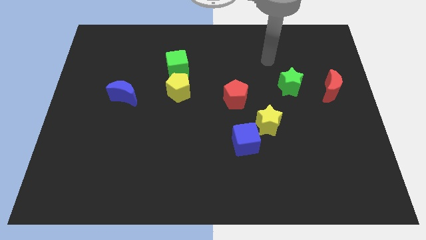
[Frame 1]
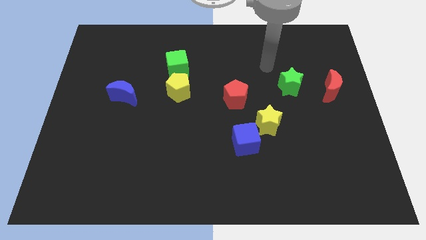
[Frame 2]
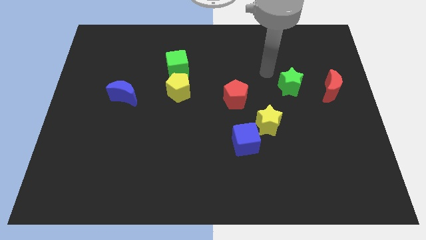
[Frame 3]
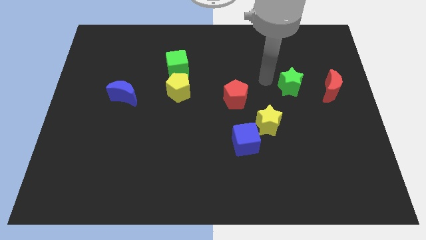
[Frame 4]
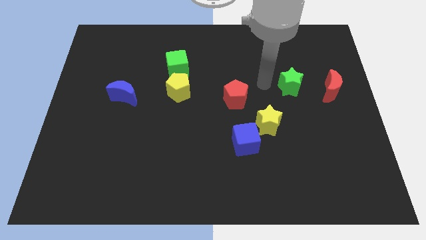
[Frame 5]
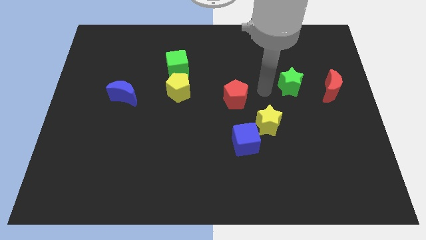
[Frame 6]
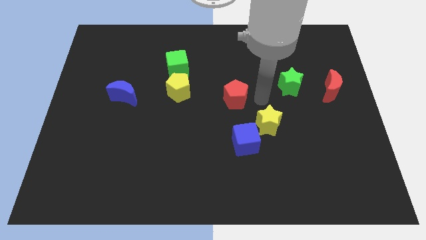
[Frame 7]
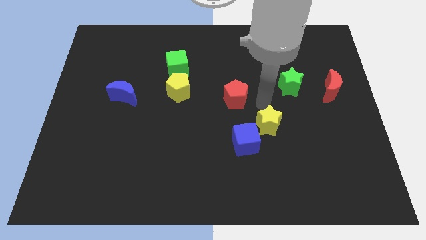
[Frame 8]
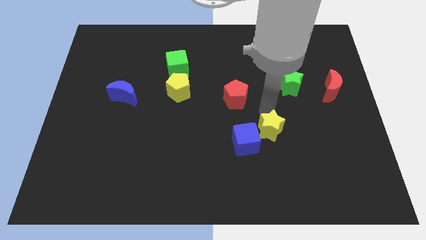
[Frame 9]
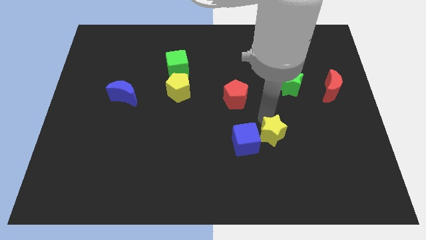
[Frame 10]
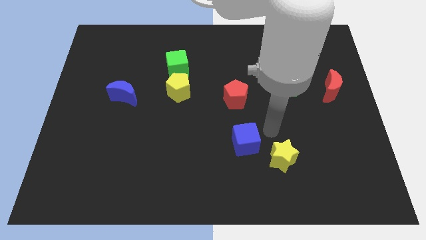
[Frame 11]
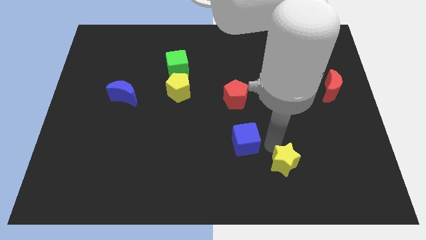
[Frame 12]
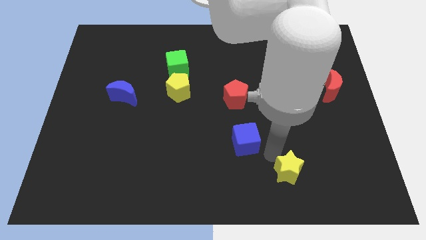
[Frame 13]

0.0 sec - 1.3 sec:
move the blue cube away from the yellow star

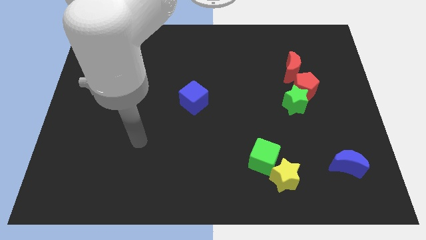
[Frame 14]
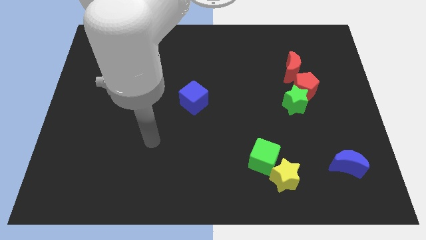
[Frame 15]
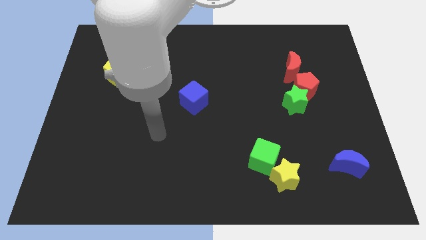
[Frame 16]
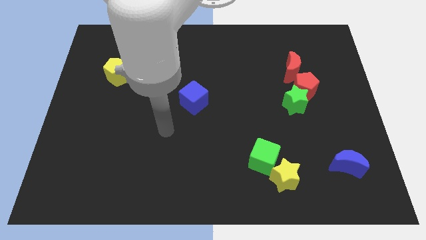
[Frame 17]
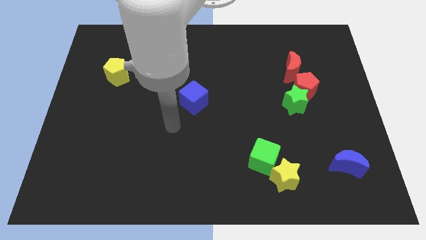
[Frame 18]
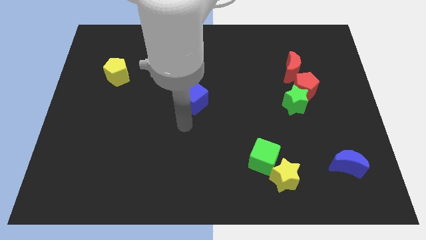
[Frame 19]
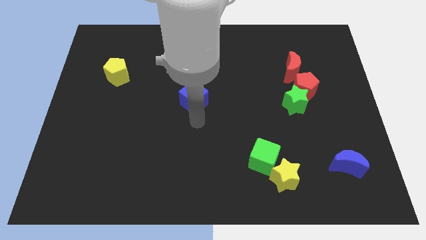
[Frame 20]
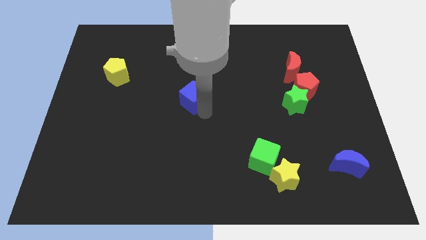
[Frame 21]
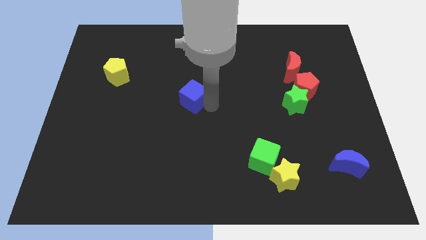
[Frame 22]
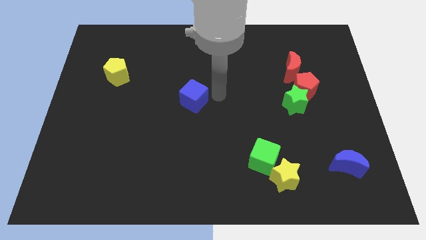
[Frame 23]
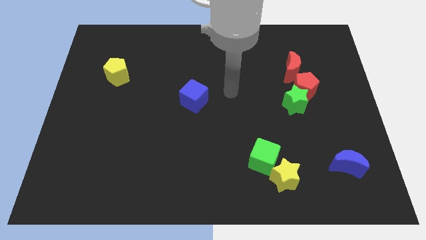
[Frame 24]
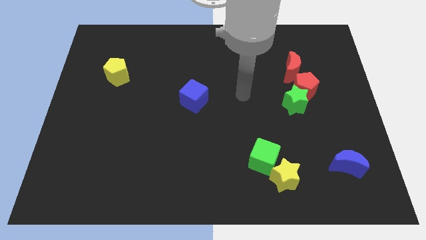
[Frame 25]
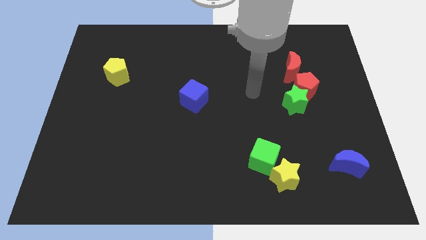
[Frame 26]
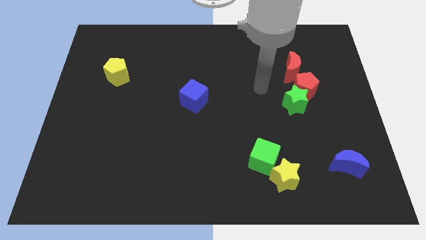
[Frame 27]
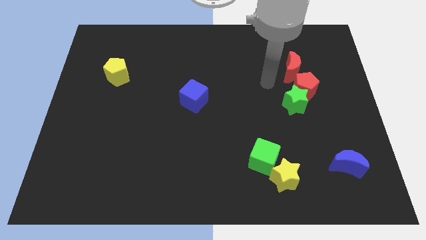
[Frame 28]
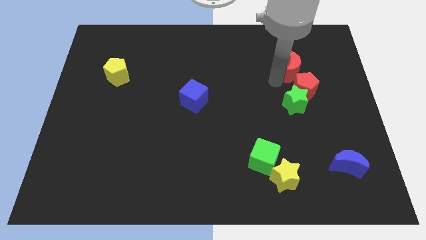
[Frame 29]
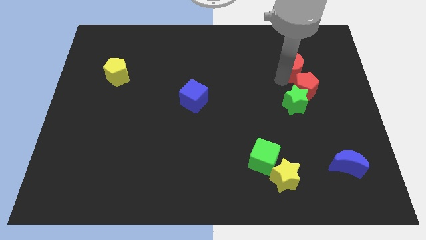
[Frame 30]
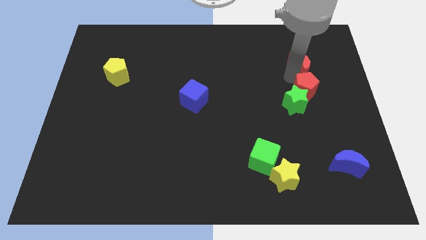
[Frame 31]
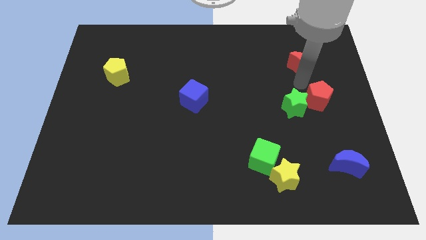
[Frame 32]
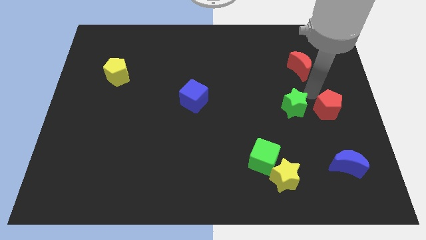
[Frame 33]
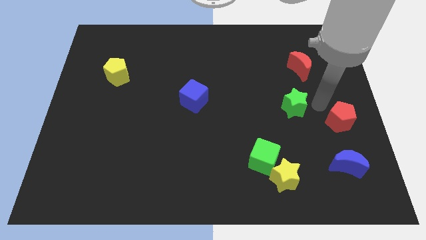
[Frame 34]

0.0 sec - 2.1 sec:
separate the green star from the red pentagon

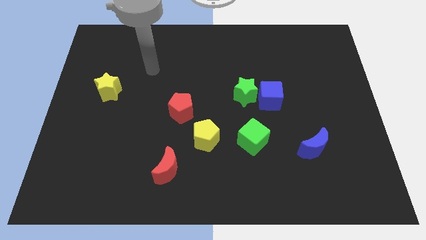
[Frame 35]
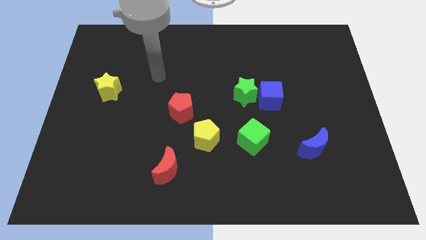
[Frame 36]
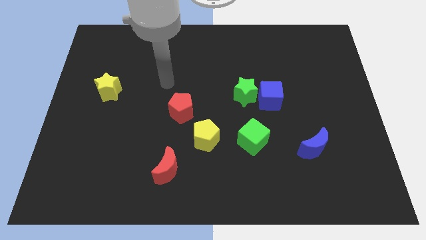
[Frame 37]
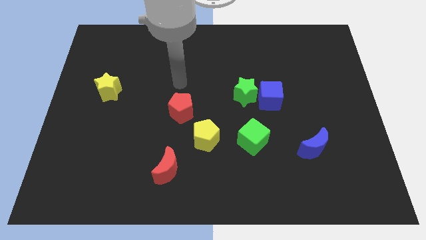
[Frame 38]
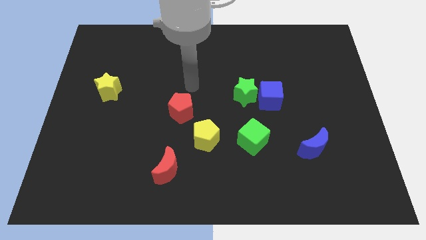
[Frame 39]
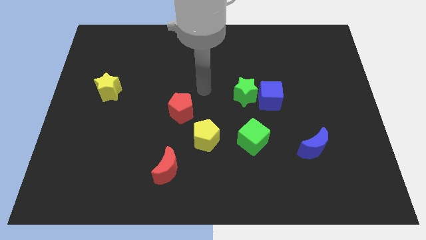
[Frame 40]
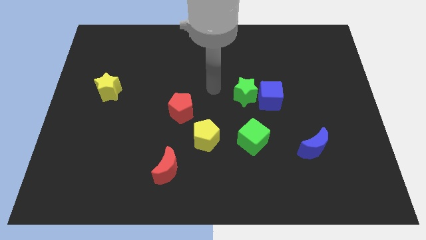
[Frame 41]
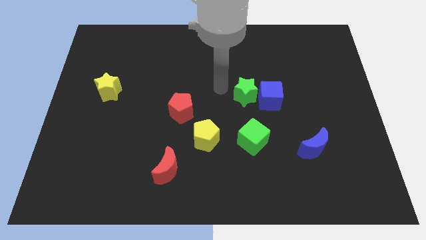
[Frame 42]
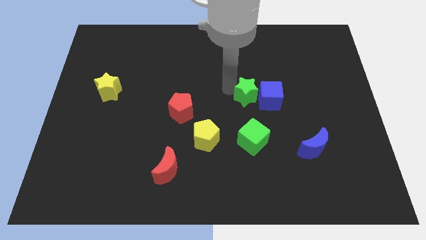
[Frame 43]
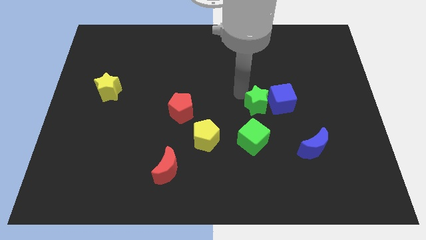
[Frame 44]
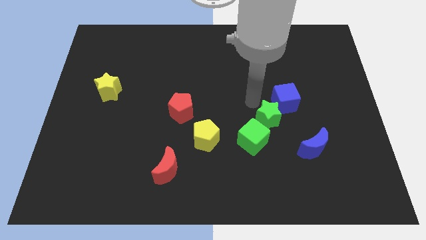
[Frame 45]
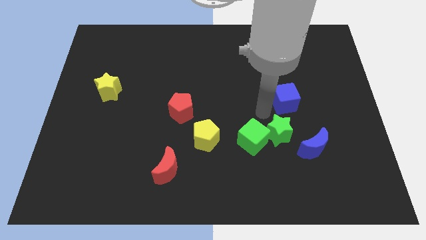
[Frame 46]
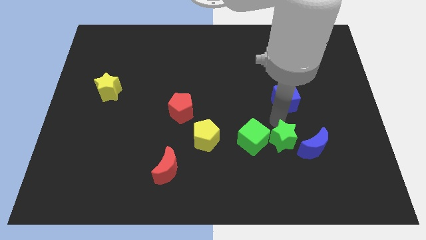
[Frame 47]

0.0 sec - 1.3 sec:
move the blue cube away from the green star

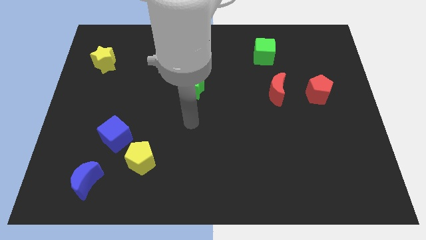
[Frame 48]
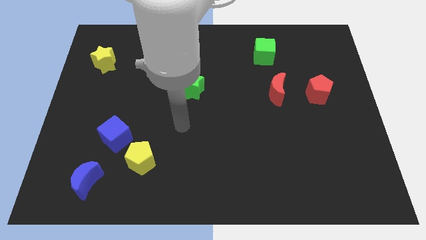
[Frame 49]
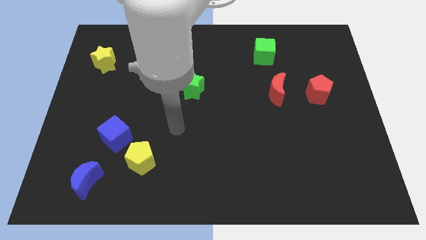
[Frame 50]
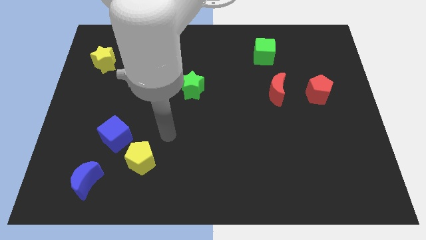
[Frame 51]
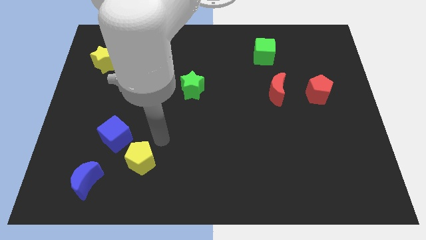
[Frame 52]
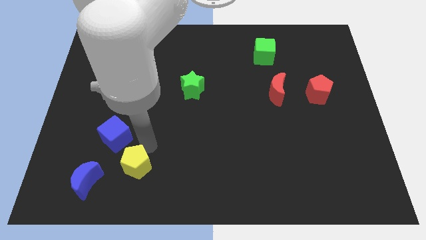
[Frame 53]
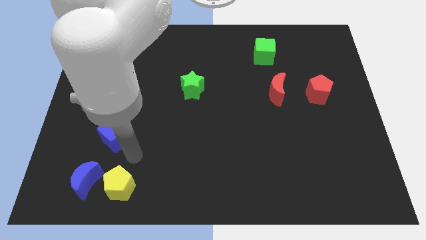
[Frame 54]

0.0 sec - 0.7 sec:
move the blue cube away from the yellow pentagon

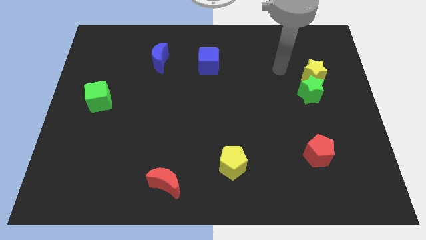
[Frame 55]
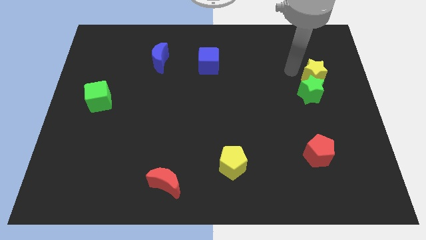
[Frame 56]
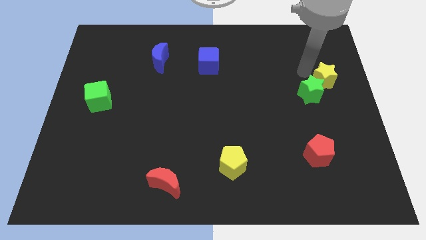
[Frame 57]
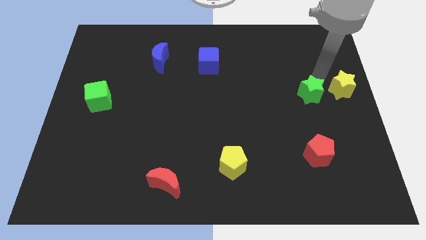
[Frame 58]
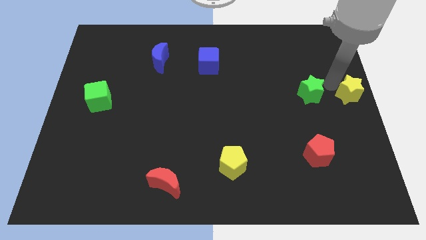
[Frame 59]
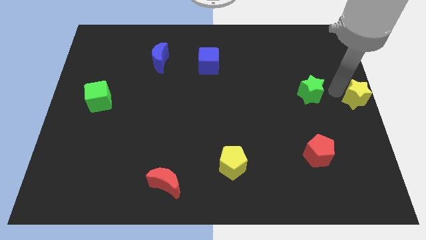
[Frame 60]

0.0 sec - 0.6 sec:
separate the green star from the yellow star

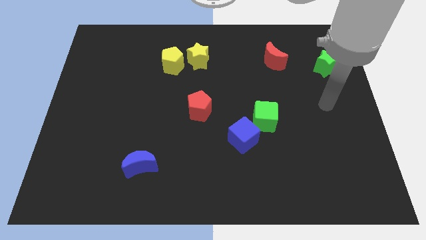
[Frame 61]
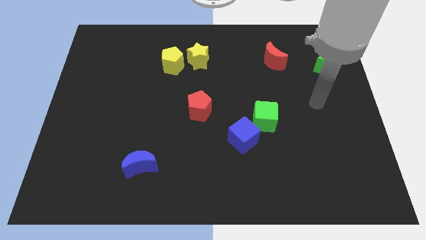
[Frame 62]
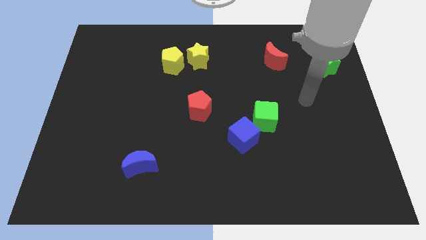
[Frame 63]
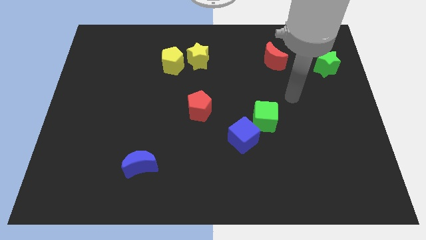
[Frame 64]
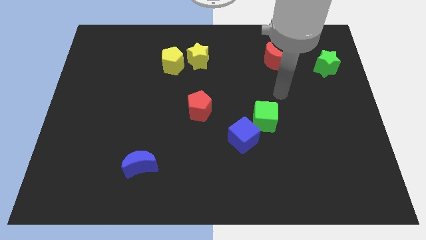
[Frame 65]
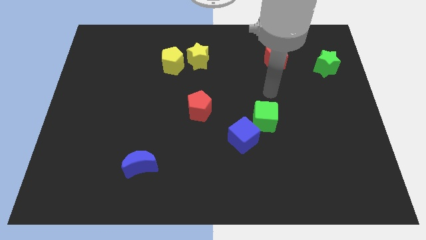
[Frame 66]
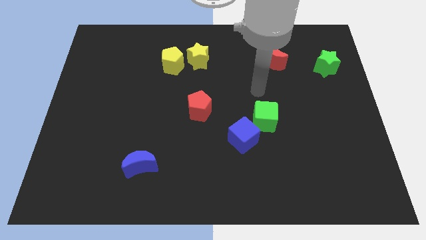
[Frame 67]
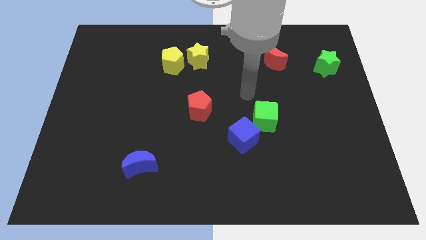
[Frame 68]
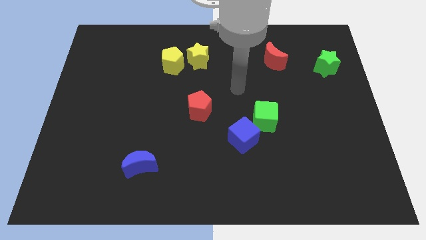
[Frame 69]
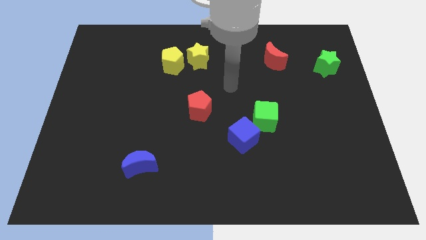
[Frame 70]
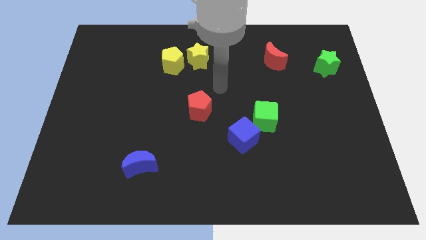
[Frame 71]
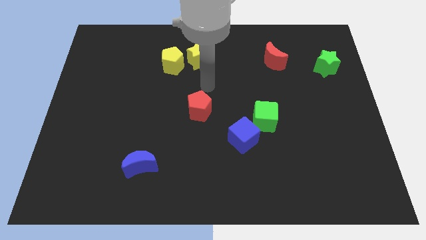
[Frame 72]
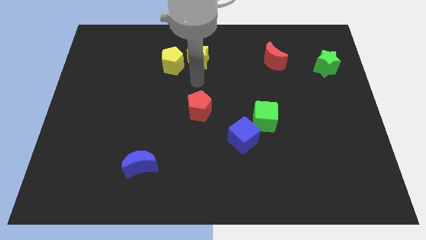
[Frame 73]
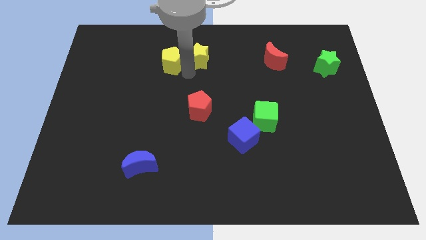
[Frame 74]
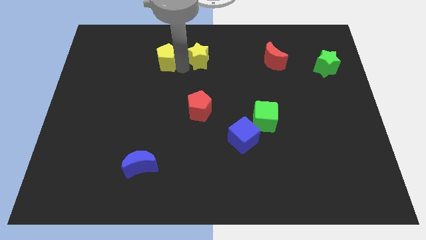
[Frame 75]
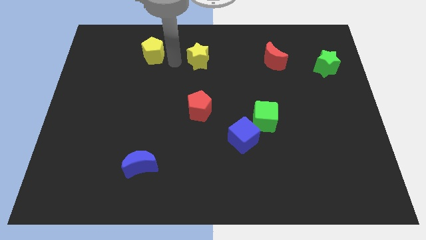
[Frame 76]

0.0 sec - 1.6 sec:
move the yellow star away from the yellow pentagon

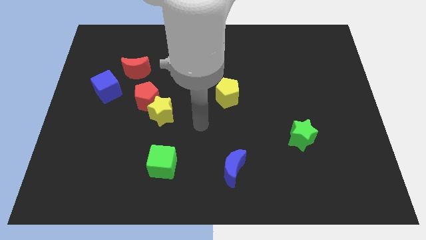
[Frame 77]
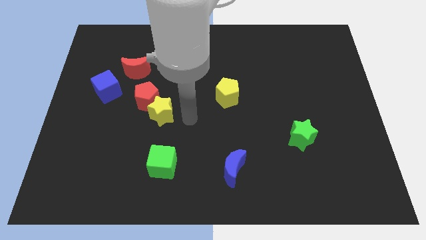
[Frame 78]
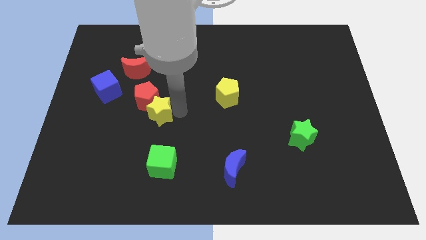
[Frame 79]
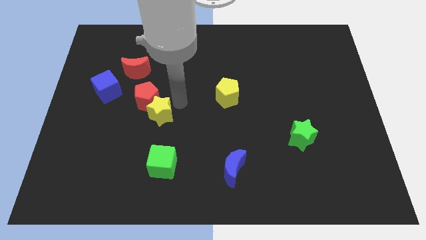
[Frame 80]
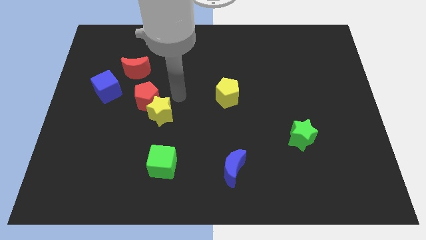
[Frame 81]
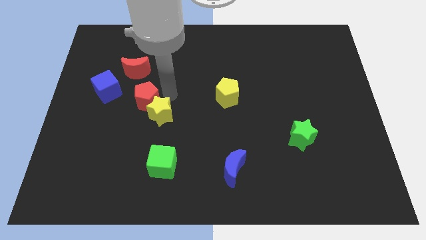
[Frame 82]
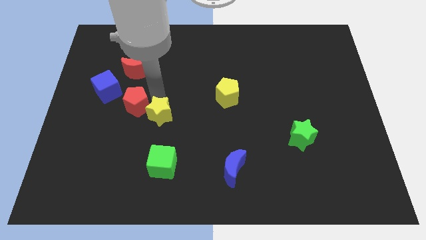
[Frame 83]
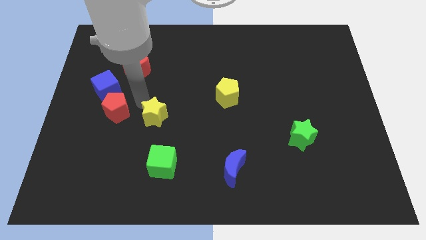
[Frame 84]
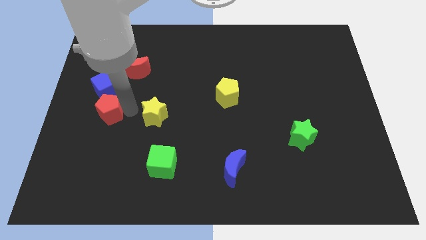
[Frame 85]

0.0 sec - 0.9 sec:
move the yellow star away from the red pentagon

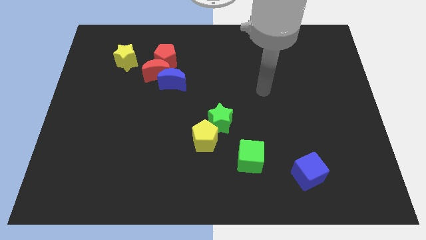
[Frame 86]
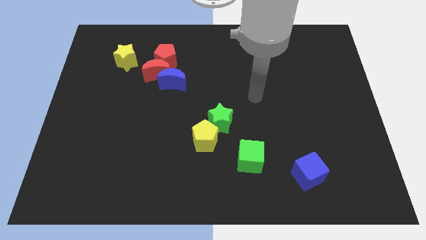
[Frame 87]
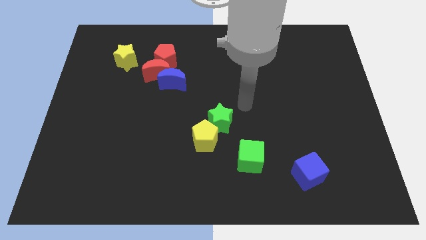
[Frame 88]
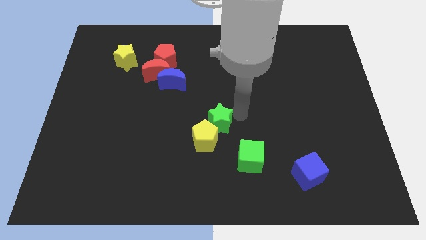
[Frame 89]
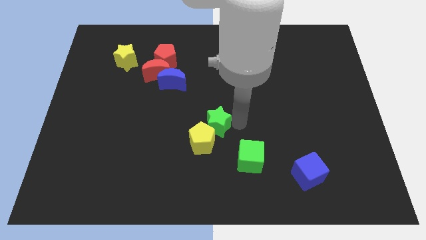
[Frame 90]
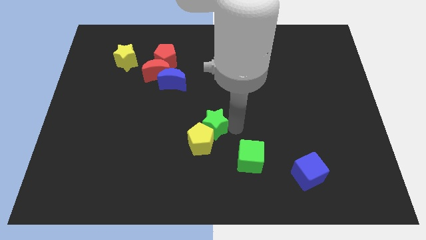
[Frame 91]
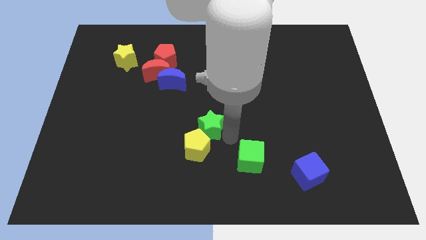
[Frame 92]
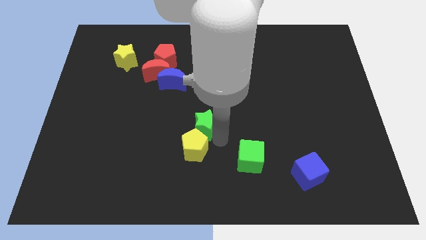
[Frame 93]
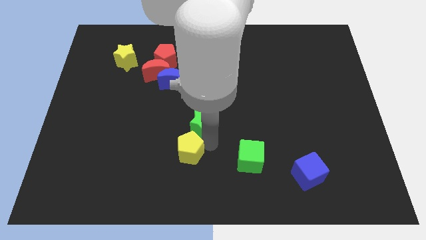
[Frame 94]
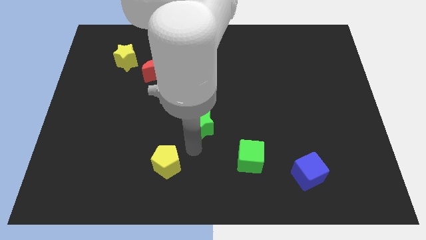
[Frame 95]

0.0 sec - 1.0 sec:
separate the green star from the yellow pentagon
